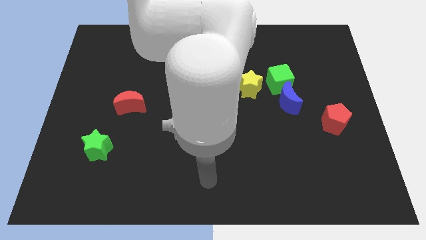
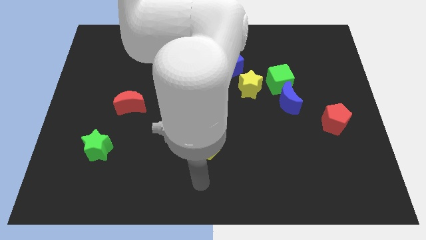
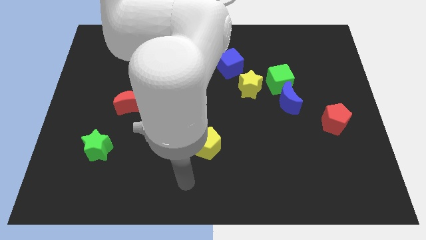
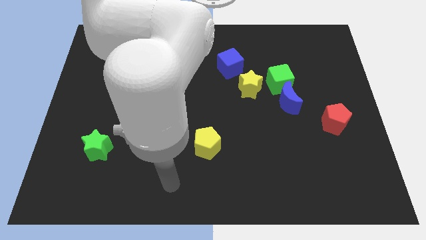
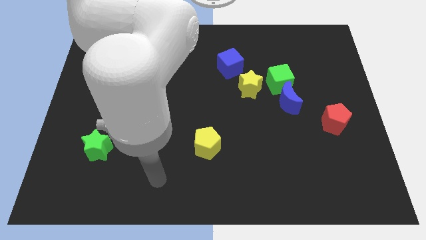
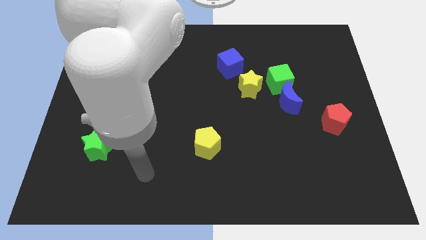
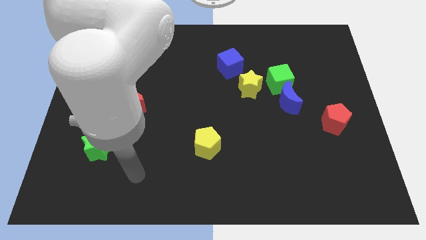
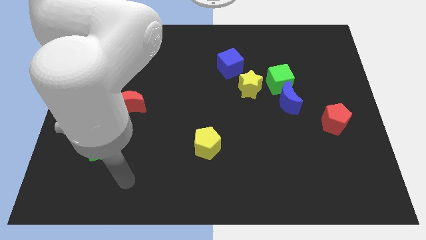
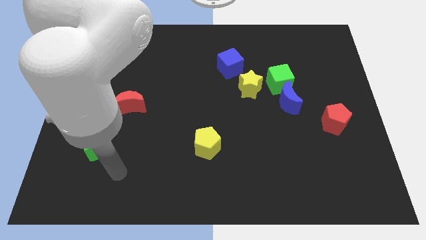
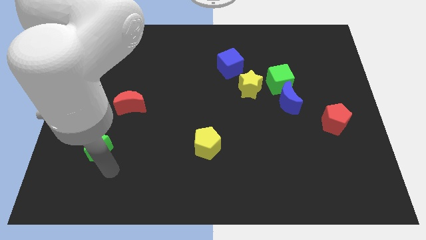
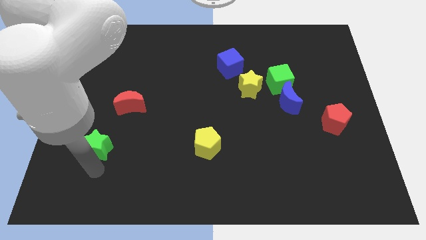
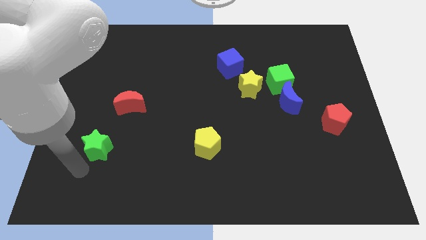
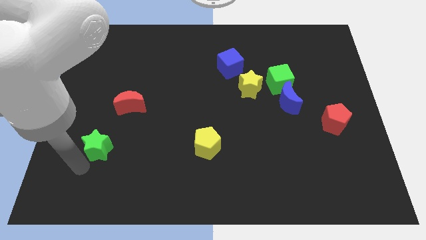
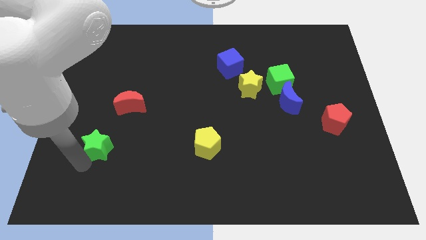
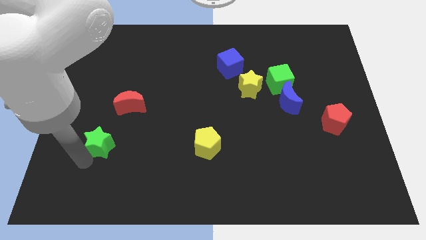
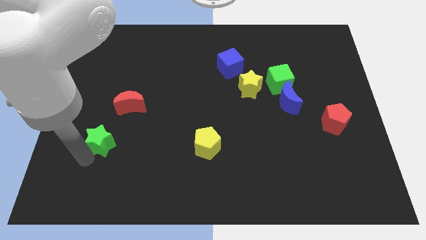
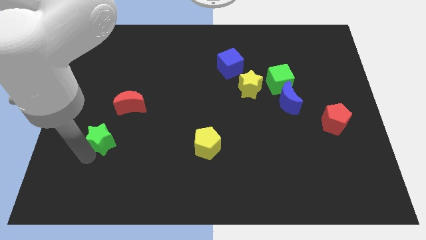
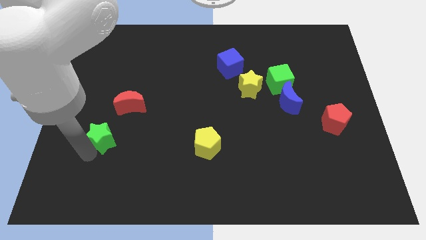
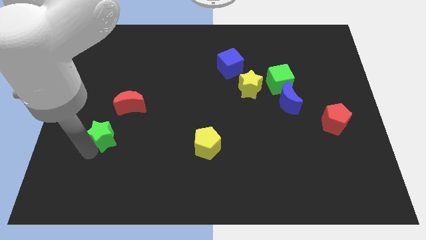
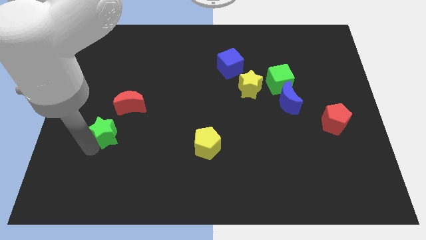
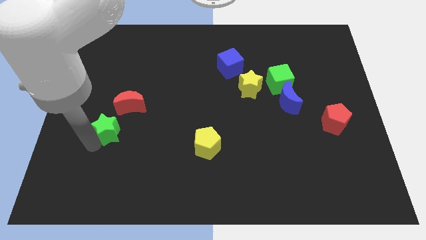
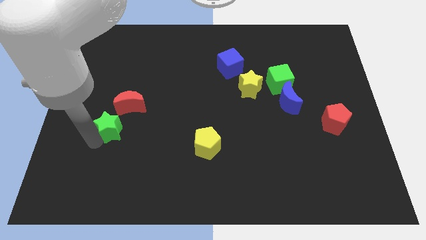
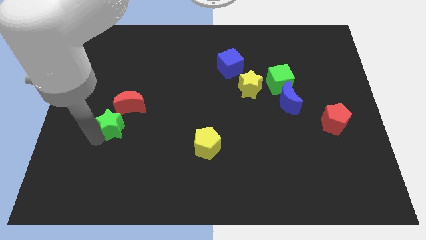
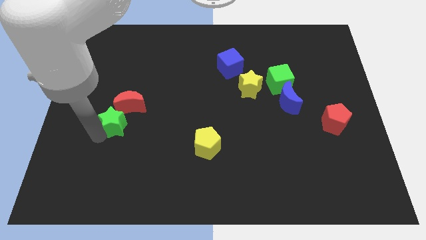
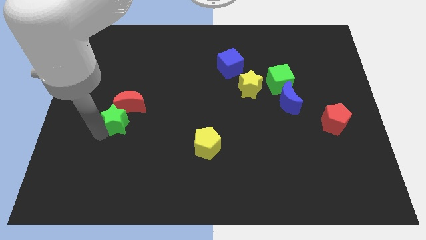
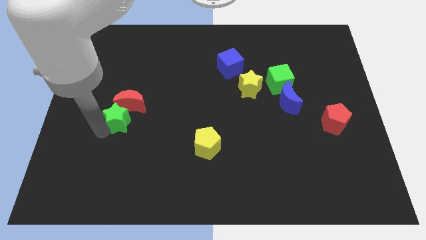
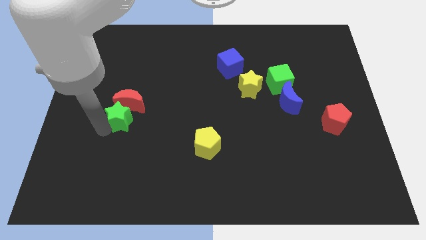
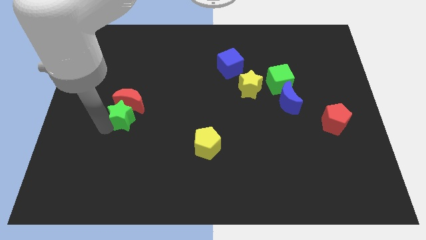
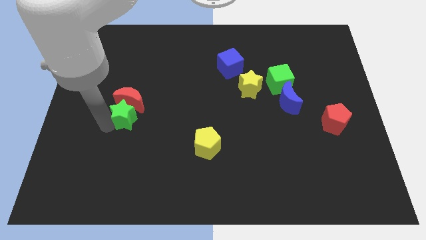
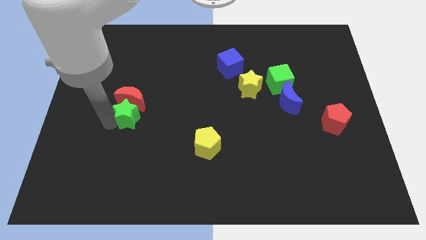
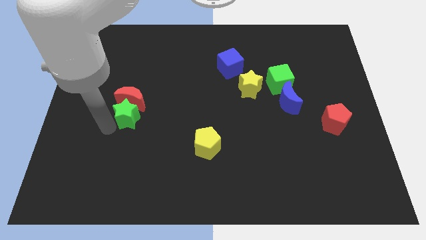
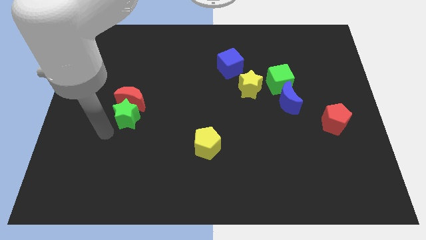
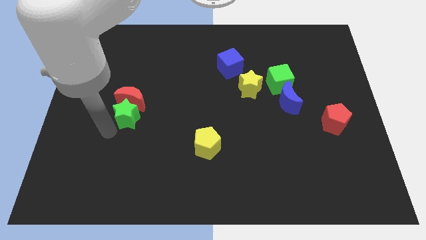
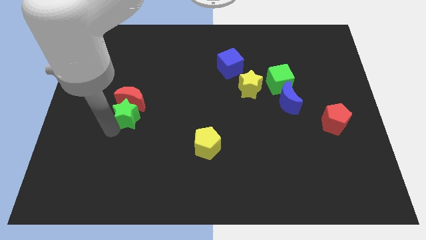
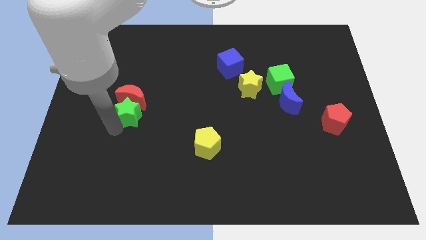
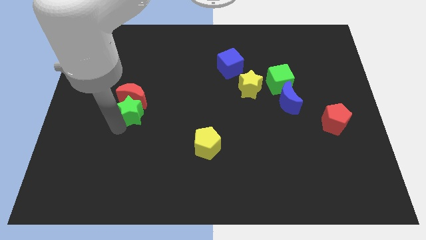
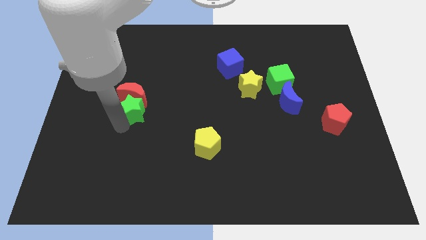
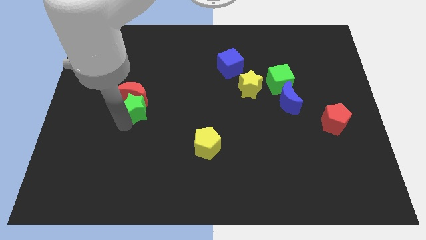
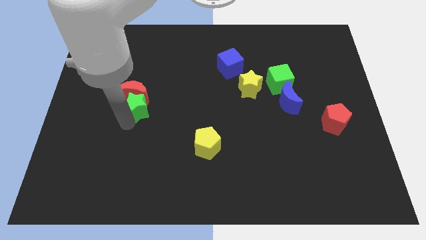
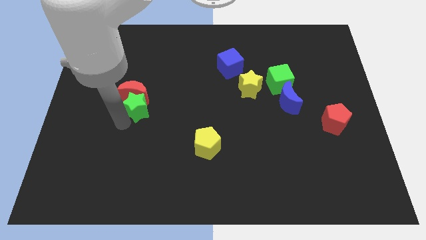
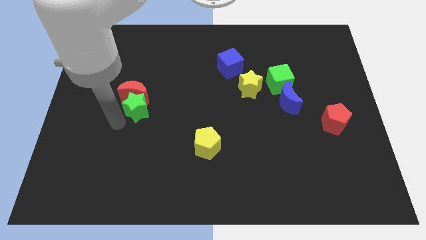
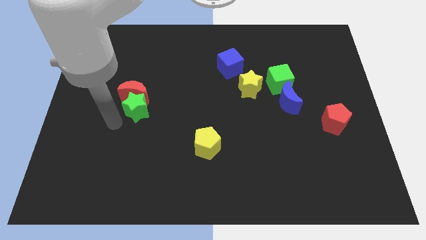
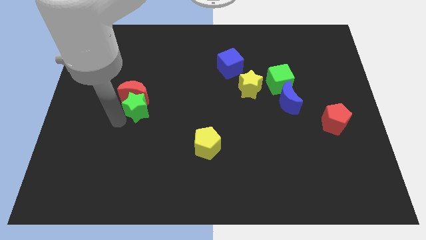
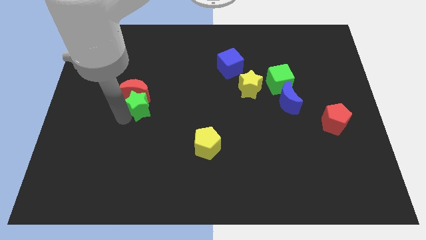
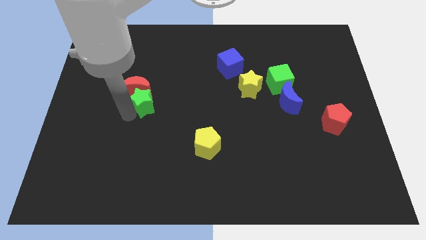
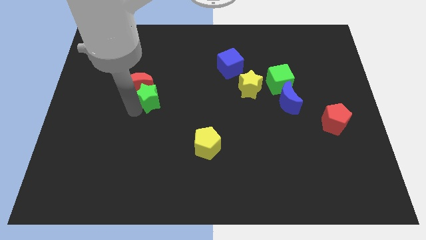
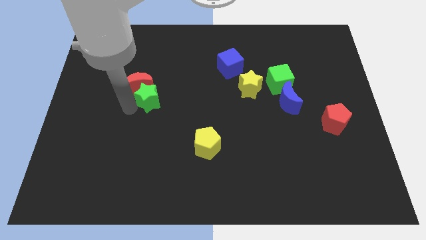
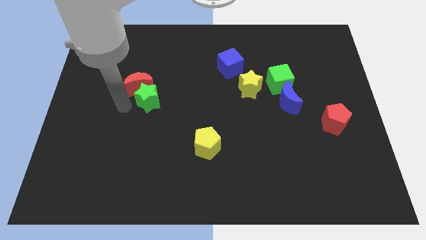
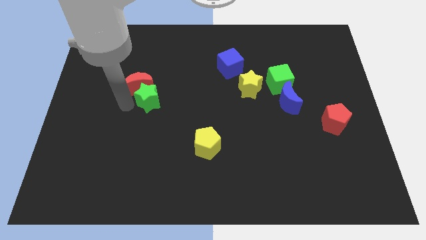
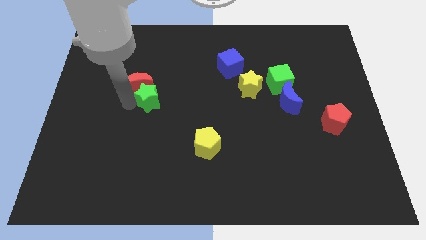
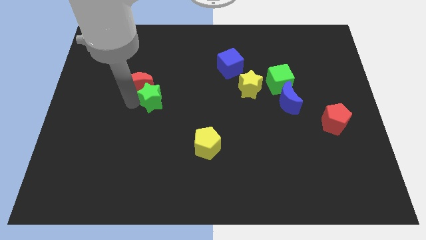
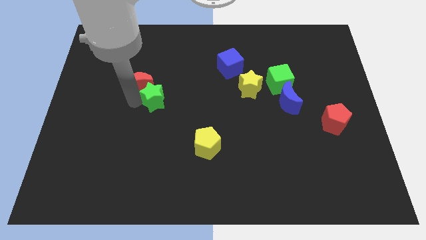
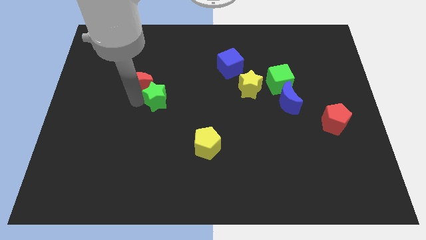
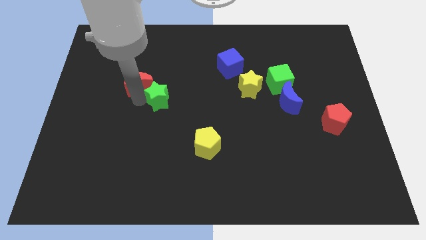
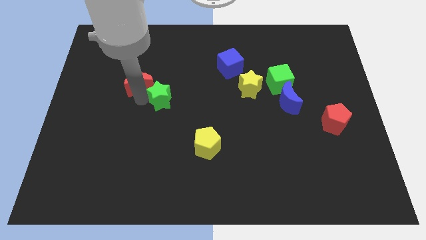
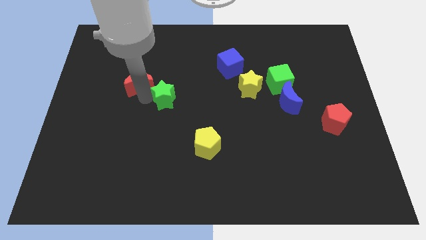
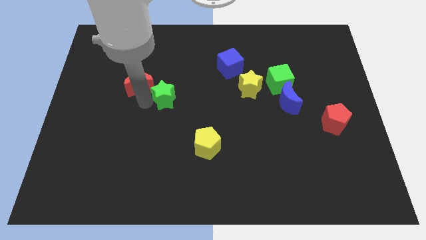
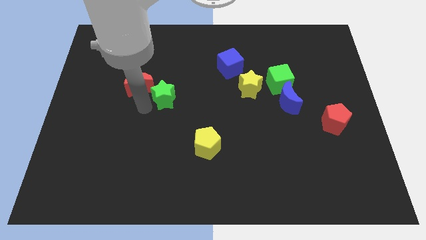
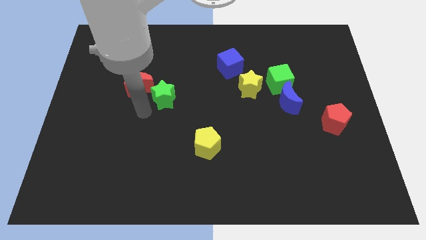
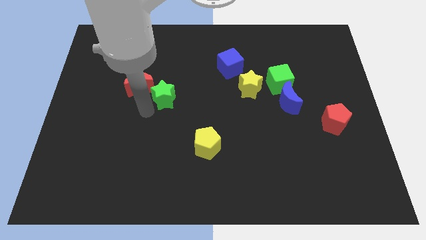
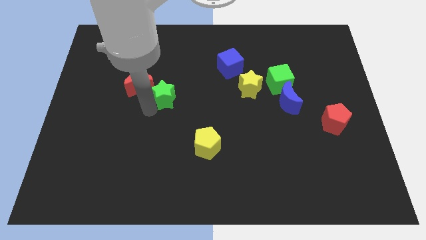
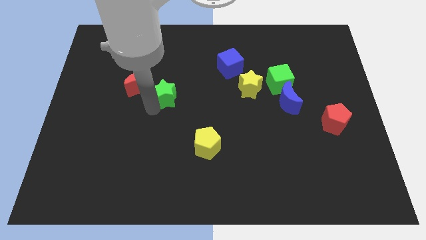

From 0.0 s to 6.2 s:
move the green star upwards and then to the right

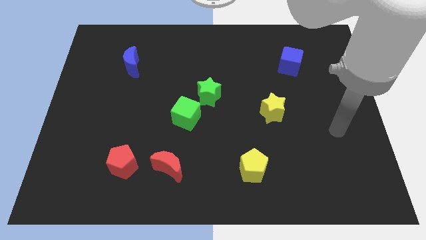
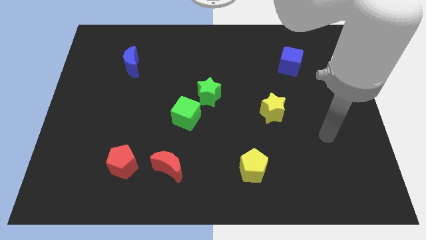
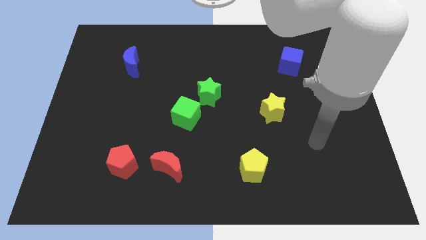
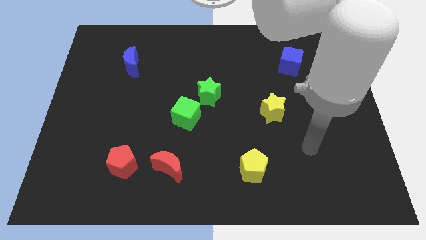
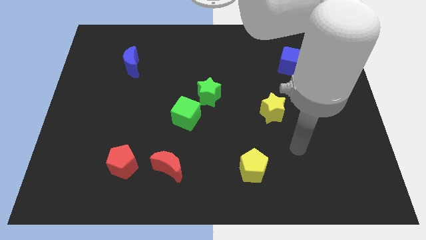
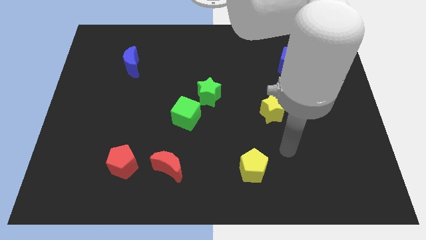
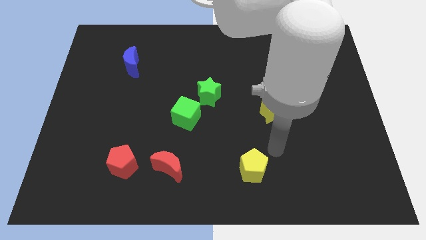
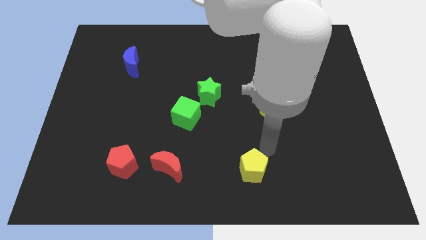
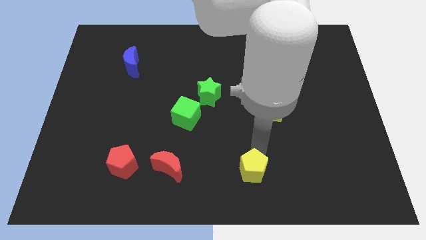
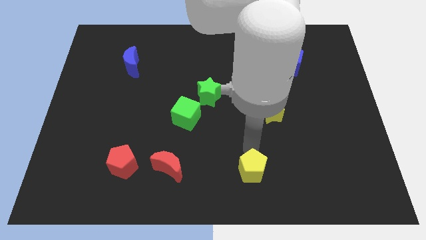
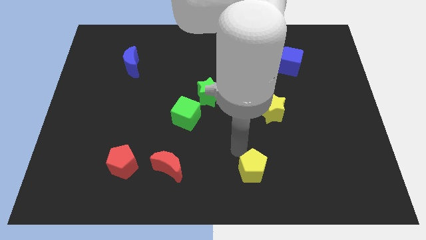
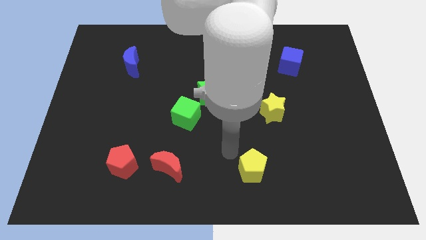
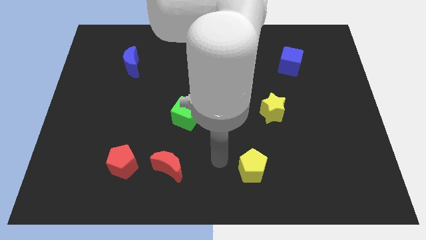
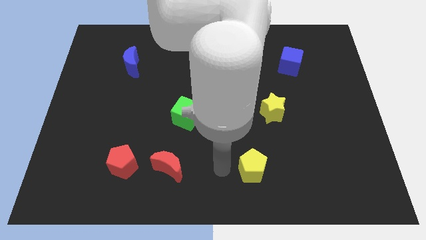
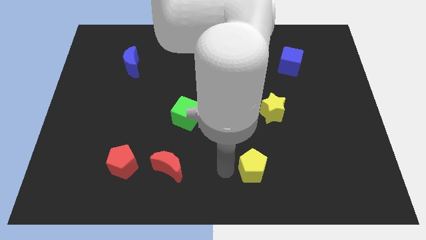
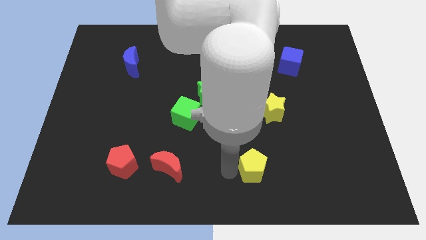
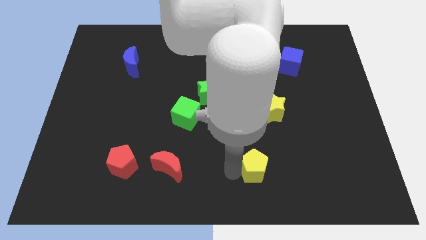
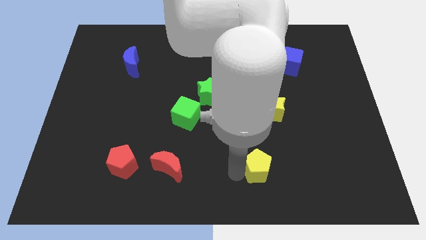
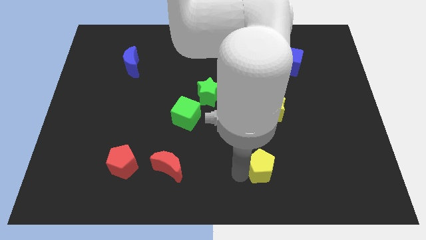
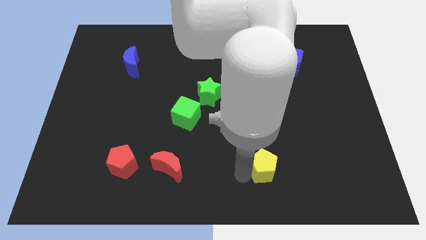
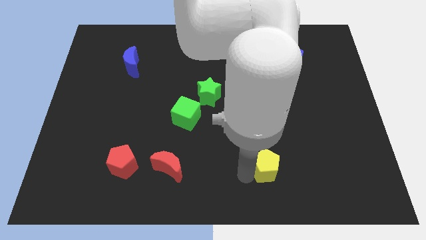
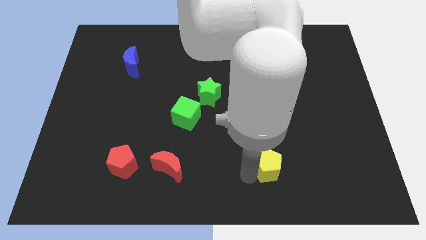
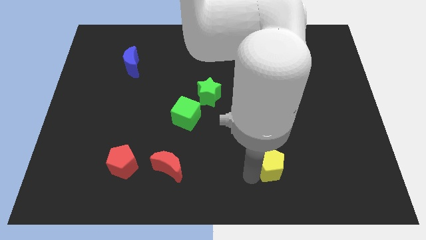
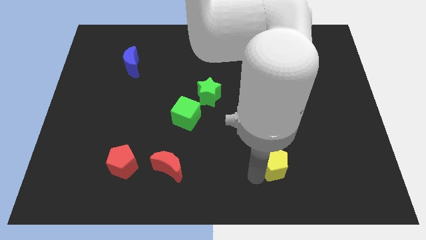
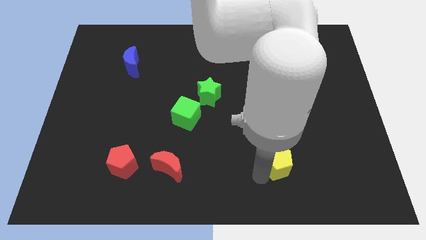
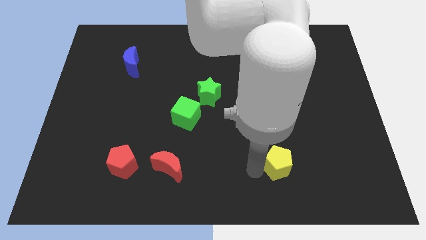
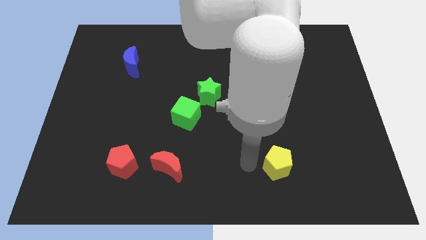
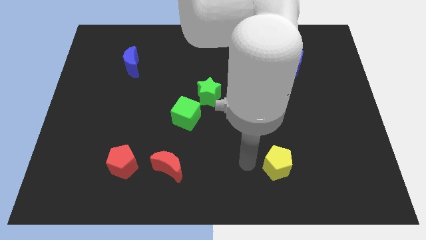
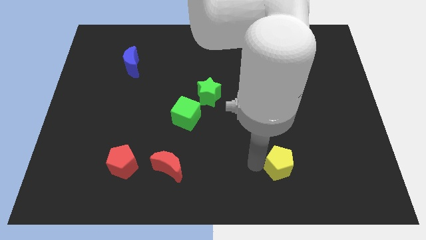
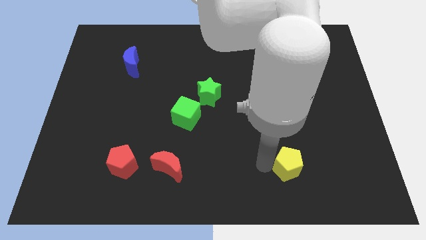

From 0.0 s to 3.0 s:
slide the yellow pentagon right somewhat
